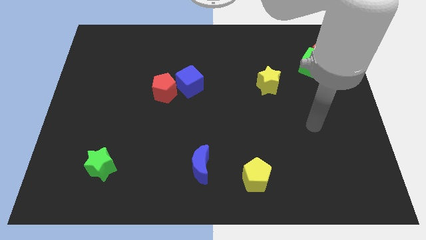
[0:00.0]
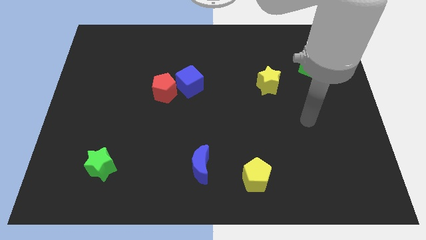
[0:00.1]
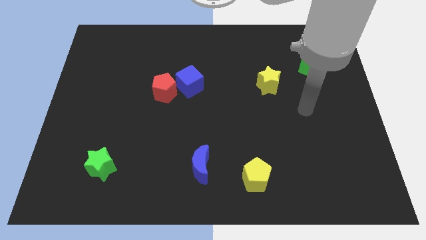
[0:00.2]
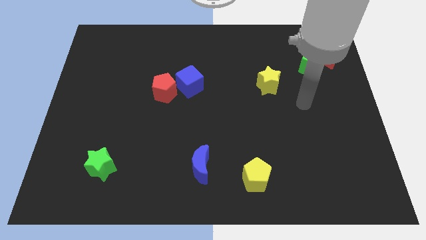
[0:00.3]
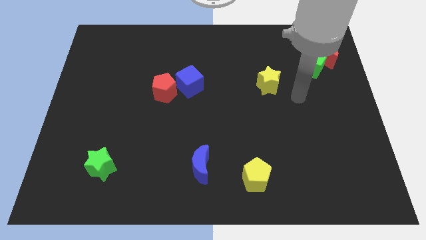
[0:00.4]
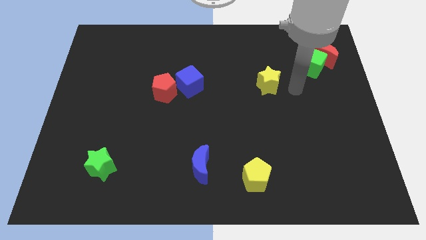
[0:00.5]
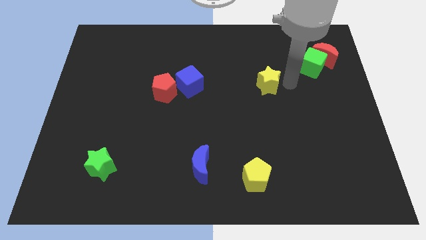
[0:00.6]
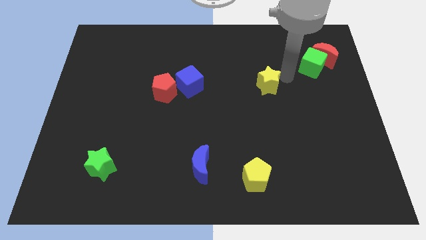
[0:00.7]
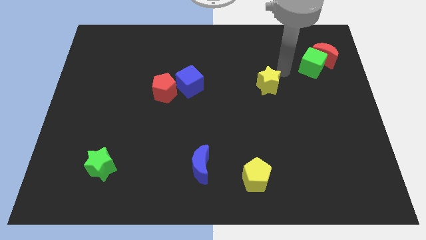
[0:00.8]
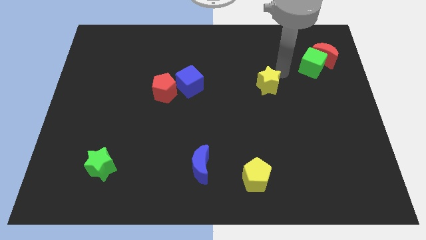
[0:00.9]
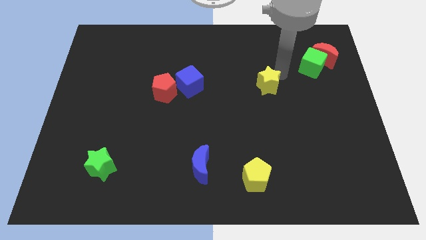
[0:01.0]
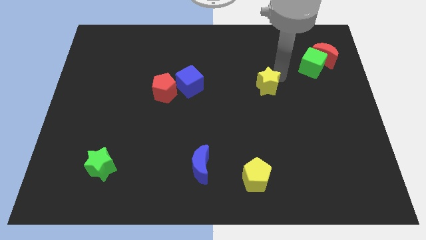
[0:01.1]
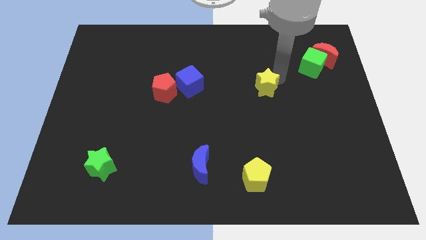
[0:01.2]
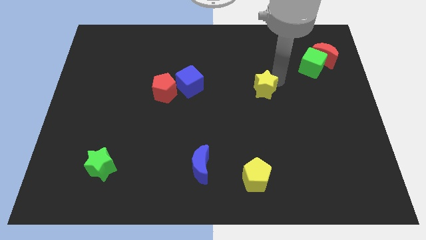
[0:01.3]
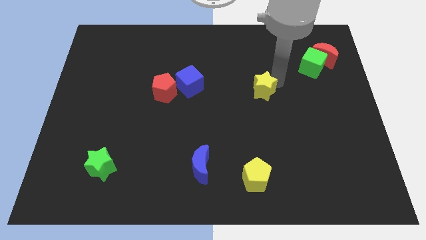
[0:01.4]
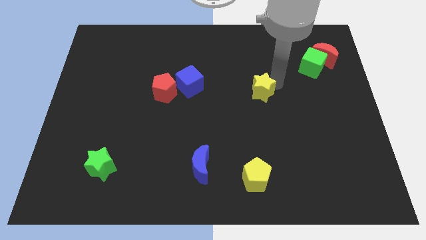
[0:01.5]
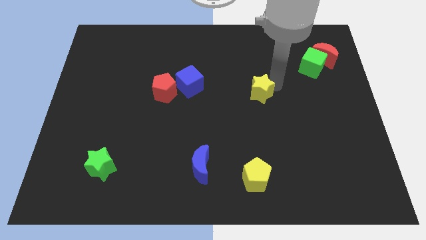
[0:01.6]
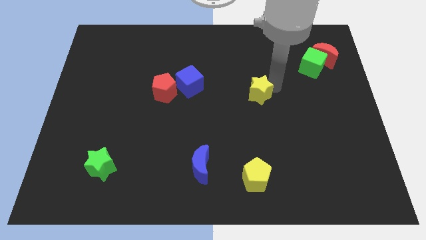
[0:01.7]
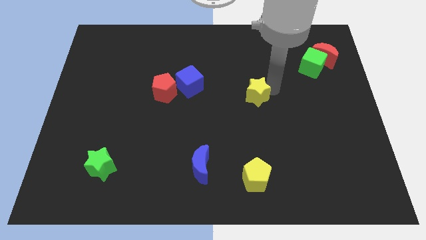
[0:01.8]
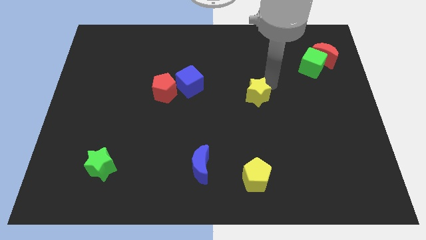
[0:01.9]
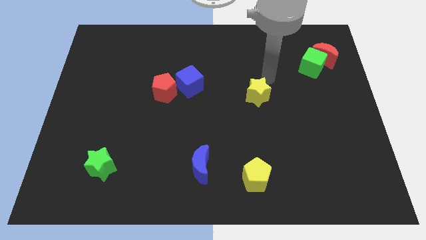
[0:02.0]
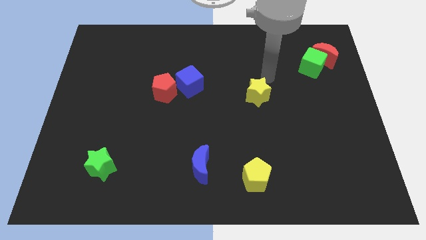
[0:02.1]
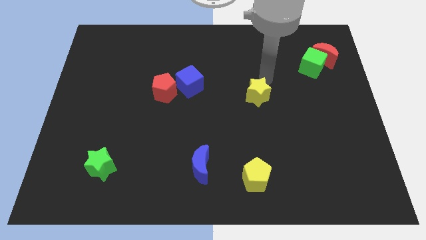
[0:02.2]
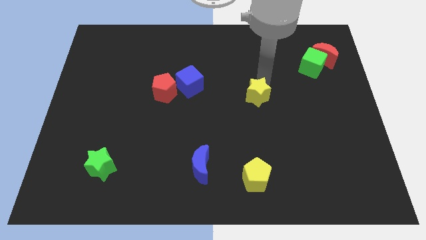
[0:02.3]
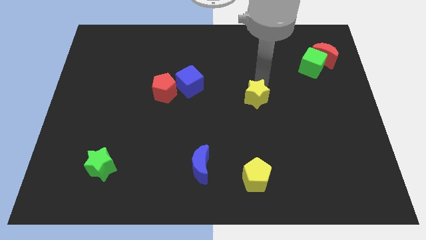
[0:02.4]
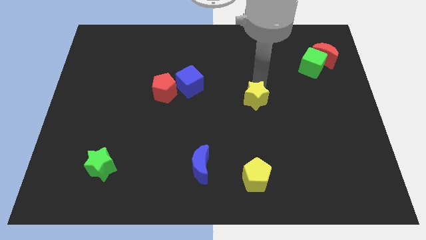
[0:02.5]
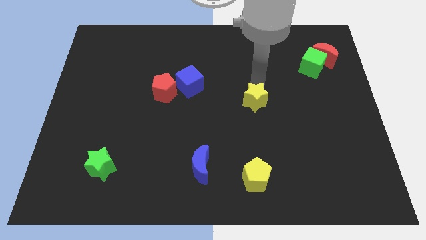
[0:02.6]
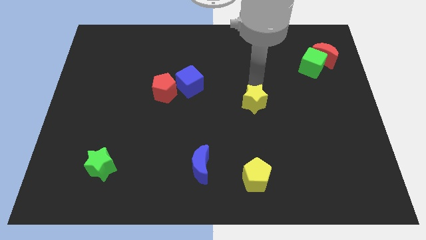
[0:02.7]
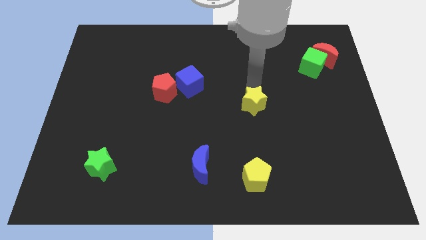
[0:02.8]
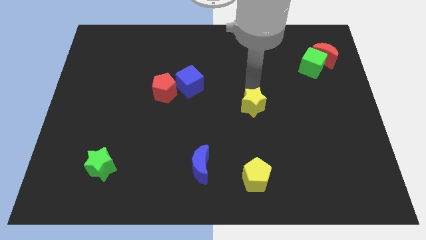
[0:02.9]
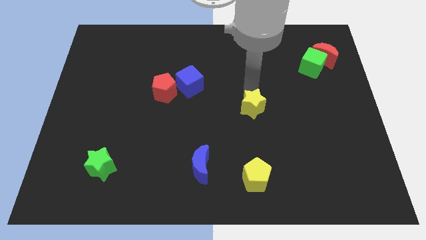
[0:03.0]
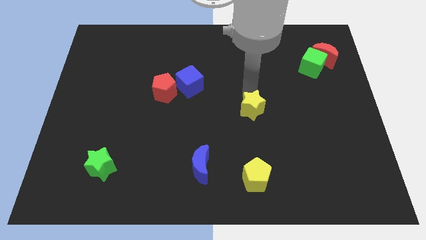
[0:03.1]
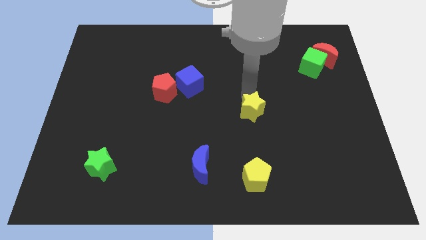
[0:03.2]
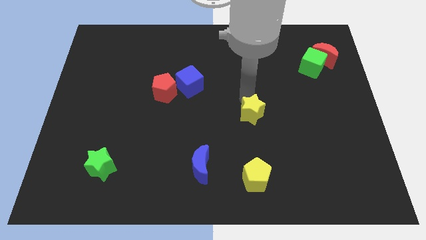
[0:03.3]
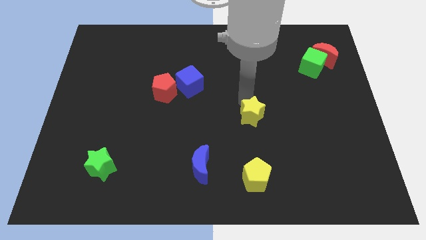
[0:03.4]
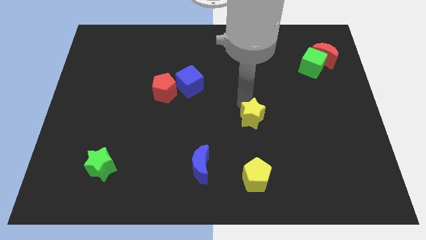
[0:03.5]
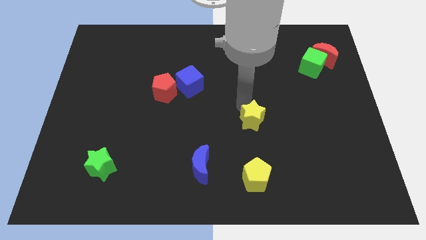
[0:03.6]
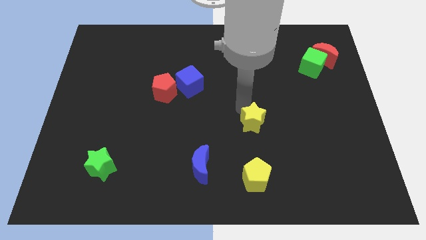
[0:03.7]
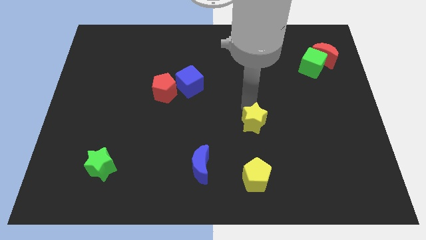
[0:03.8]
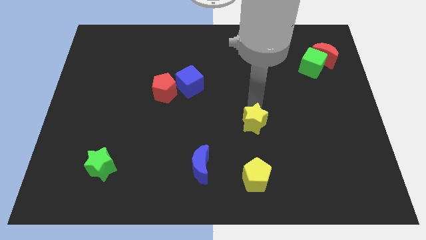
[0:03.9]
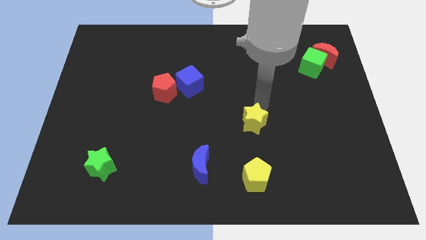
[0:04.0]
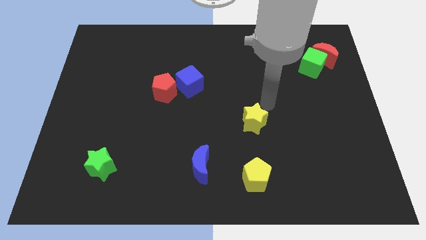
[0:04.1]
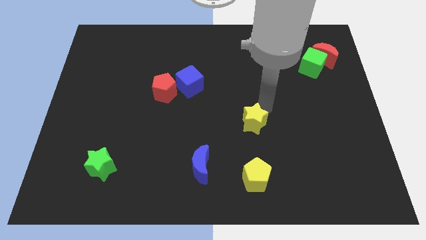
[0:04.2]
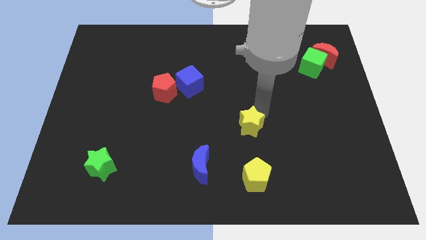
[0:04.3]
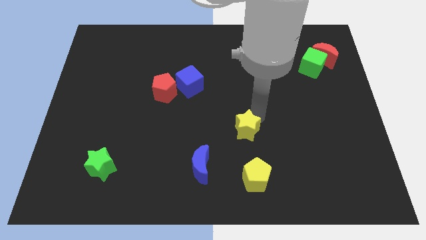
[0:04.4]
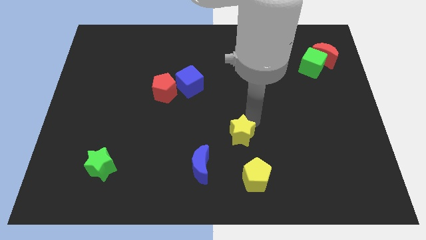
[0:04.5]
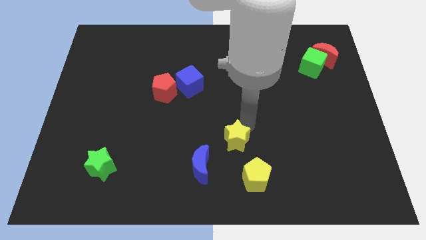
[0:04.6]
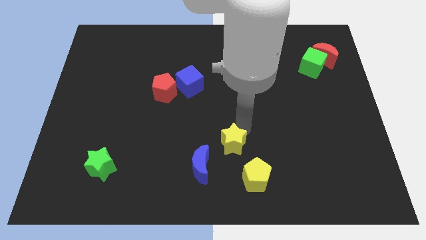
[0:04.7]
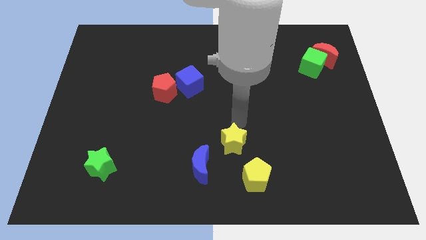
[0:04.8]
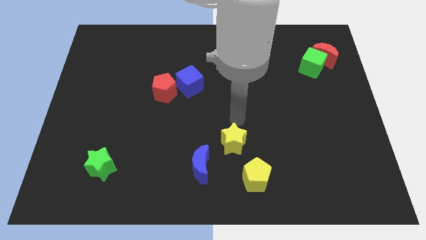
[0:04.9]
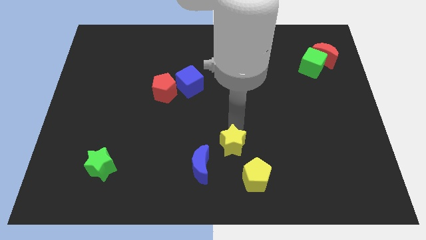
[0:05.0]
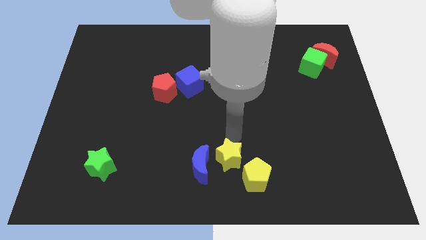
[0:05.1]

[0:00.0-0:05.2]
move the yellow star to the bottom

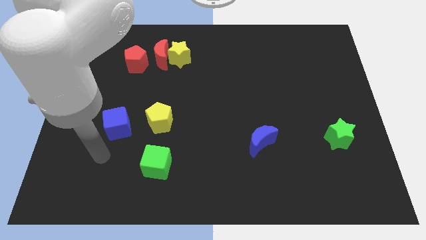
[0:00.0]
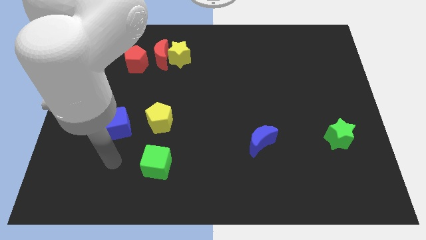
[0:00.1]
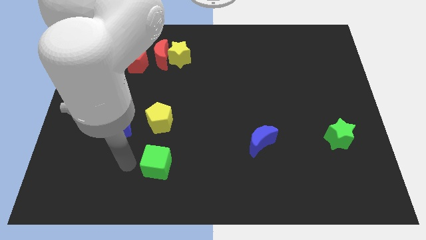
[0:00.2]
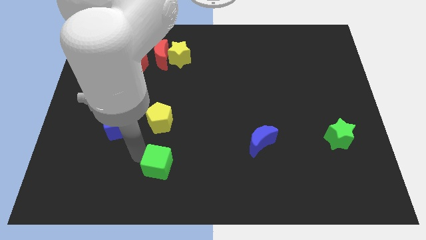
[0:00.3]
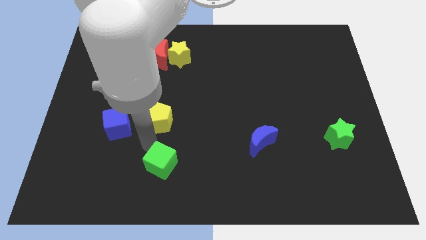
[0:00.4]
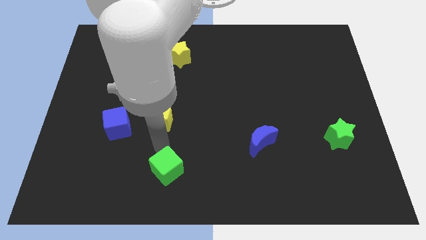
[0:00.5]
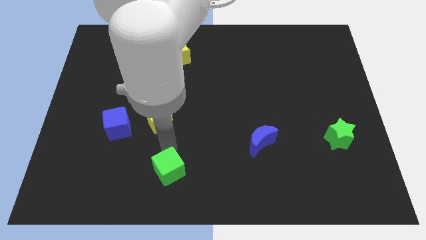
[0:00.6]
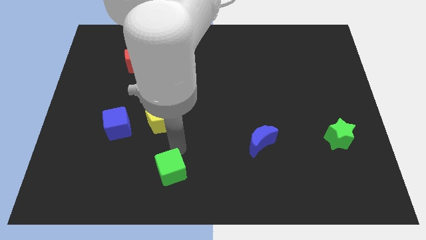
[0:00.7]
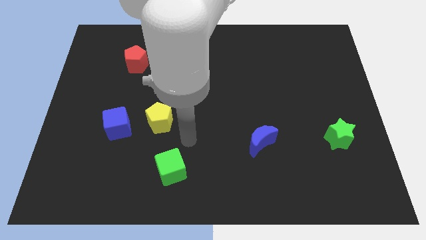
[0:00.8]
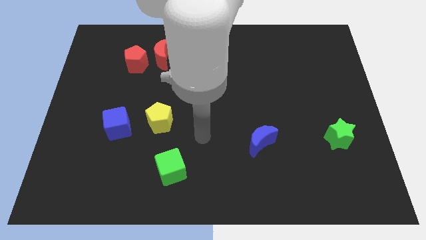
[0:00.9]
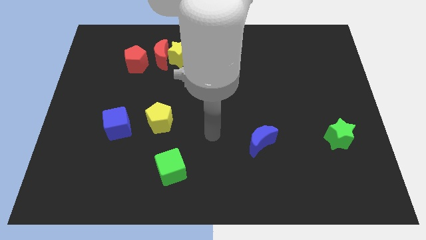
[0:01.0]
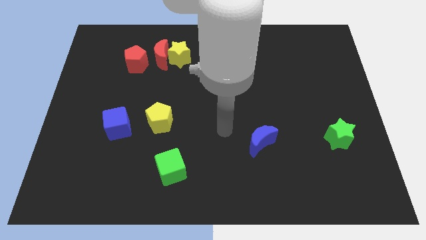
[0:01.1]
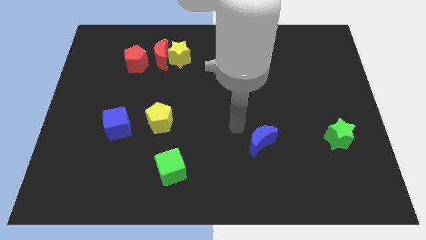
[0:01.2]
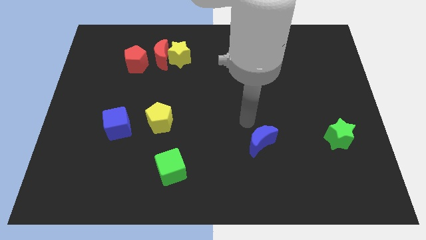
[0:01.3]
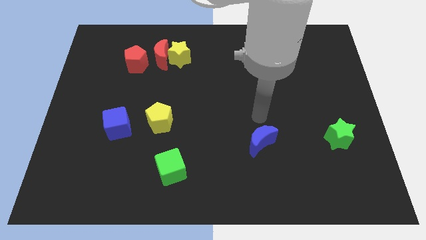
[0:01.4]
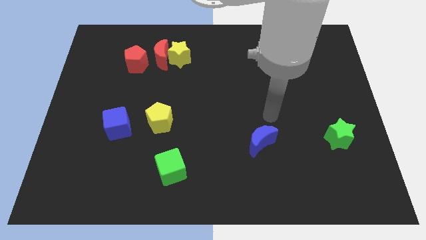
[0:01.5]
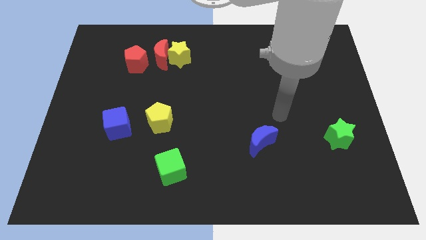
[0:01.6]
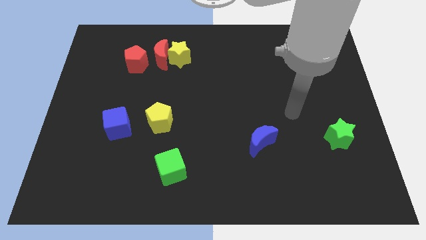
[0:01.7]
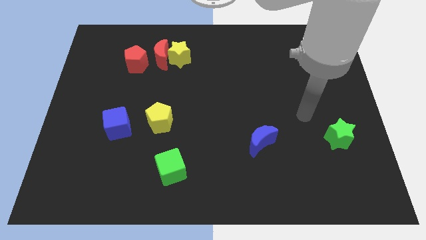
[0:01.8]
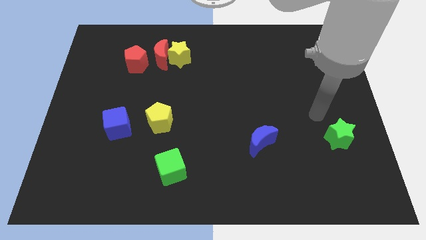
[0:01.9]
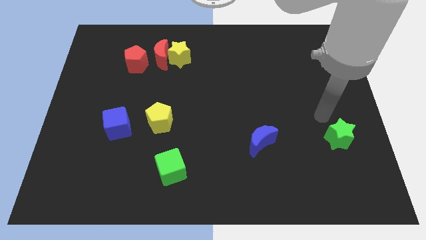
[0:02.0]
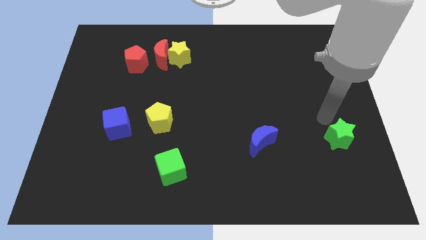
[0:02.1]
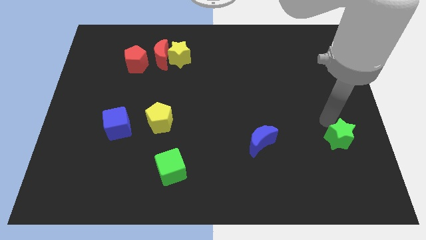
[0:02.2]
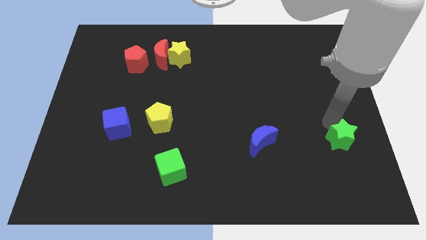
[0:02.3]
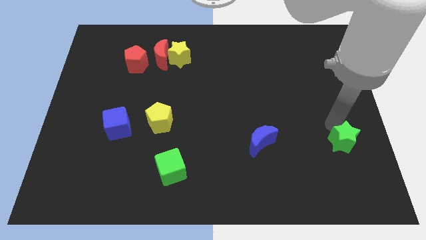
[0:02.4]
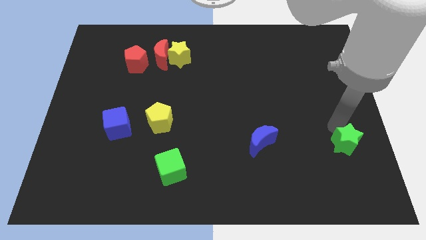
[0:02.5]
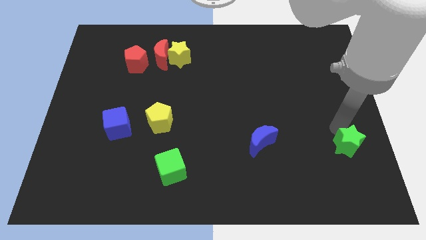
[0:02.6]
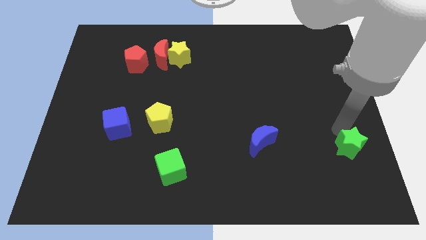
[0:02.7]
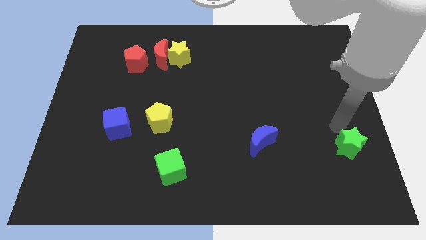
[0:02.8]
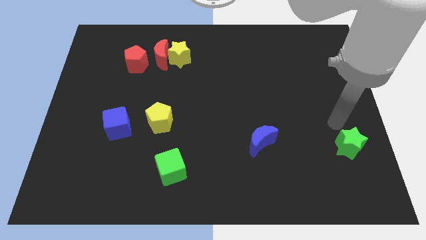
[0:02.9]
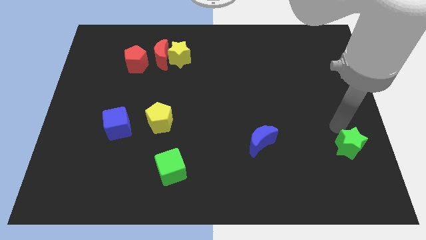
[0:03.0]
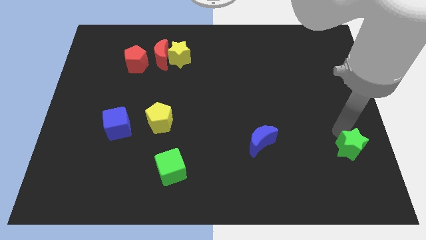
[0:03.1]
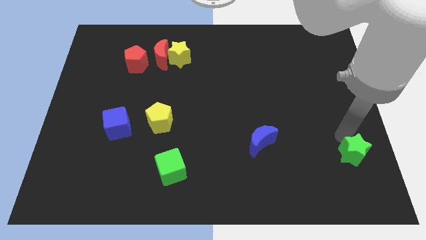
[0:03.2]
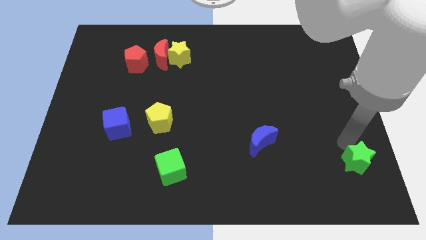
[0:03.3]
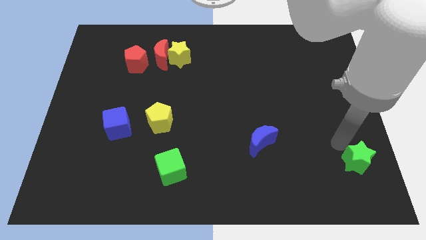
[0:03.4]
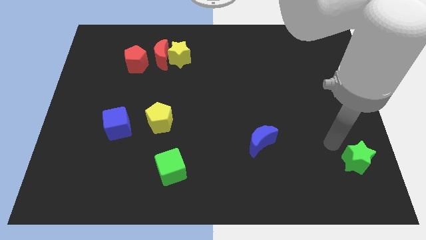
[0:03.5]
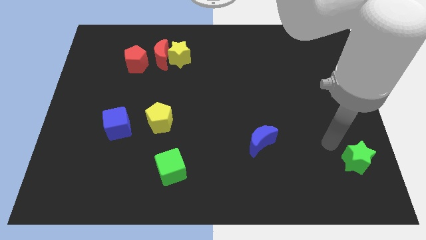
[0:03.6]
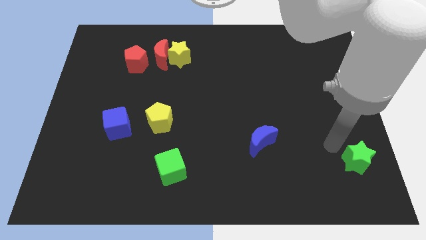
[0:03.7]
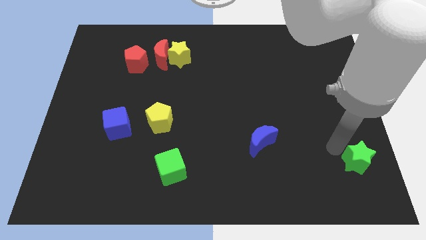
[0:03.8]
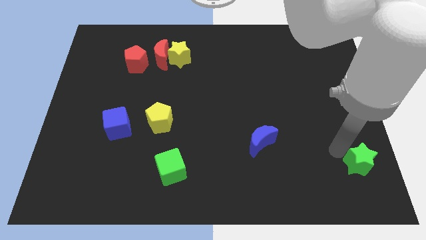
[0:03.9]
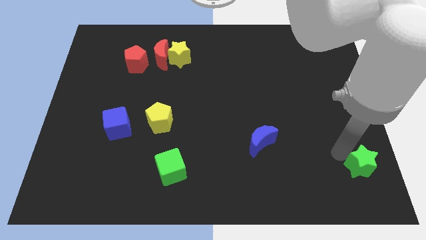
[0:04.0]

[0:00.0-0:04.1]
push the green star to the bottom right of the board
